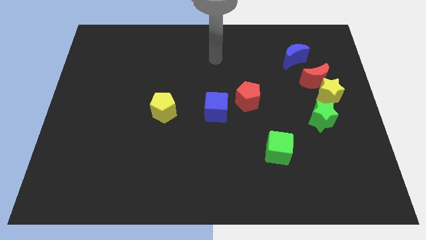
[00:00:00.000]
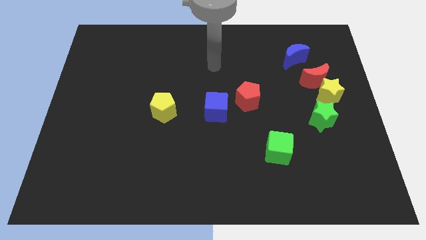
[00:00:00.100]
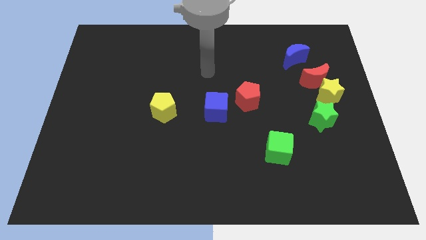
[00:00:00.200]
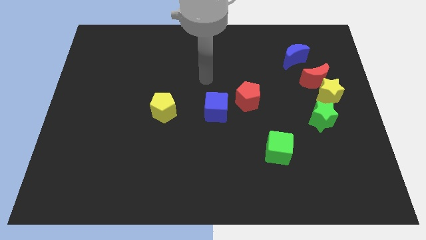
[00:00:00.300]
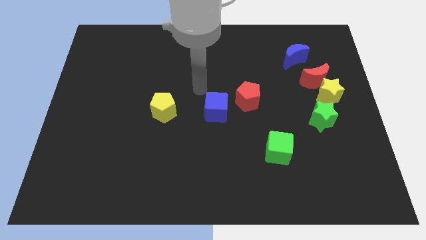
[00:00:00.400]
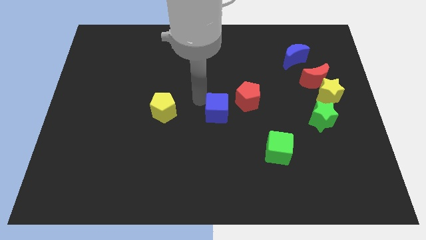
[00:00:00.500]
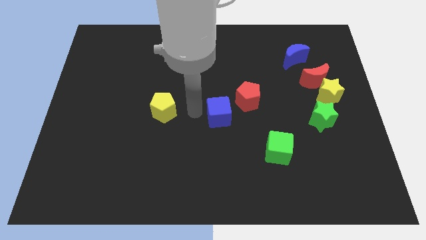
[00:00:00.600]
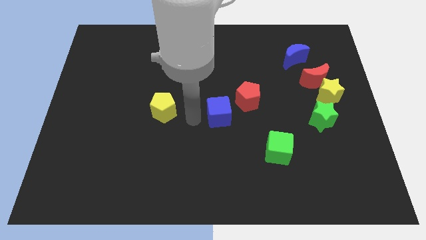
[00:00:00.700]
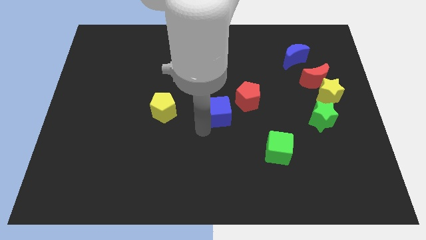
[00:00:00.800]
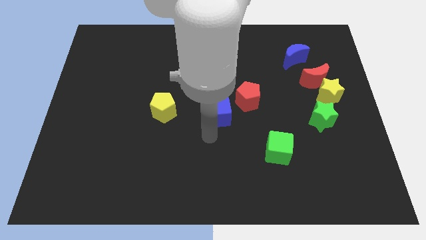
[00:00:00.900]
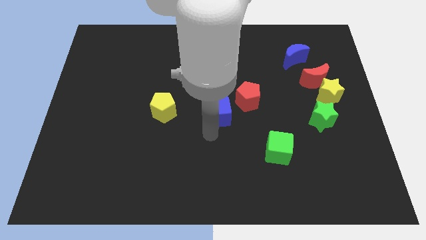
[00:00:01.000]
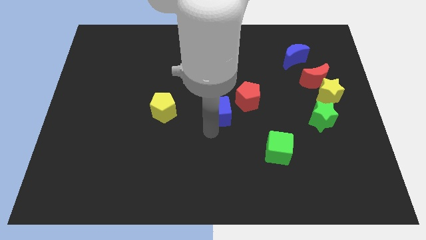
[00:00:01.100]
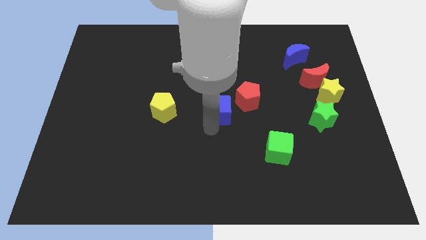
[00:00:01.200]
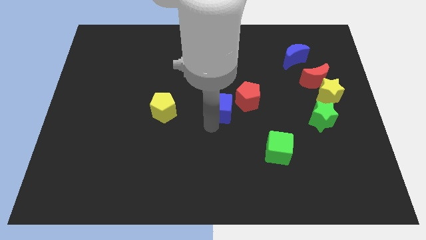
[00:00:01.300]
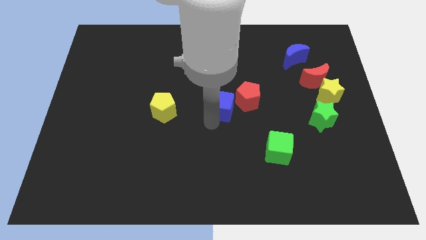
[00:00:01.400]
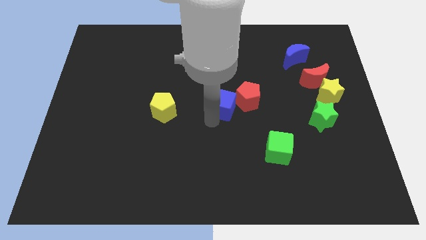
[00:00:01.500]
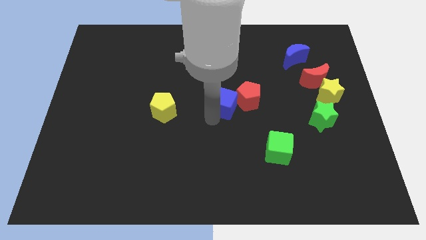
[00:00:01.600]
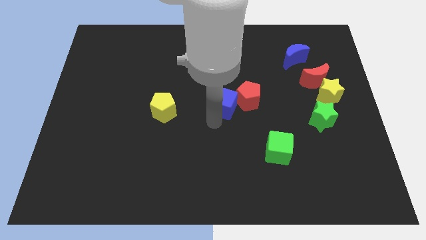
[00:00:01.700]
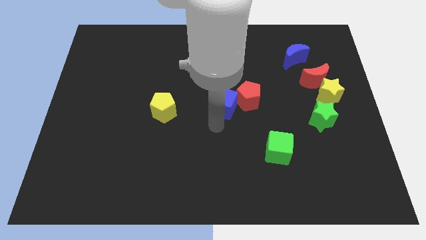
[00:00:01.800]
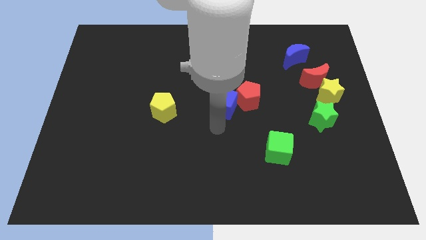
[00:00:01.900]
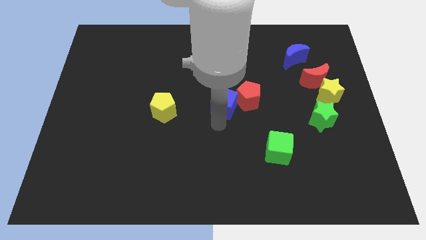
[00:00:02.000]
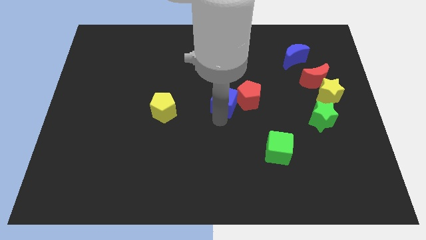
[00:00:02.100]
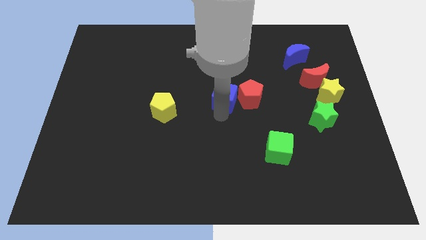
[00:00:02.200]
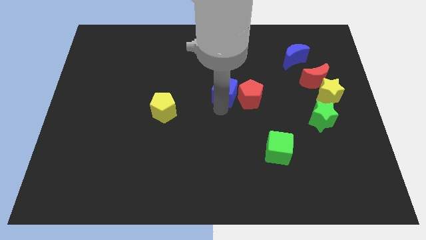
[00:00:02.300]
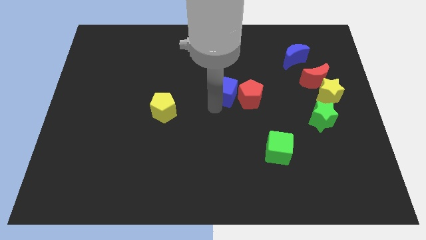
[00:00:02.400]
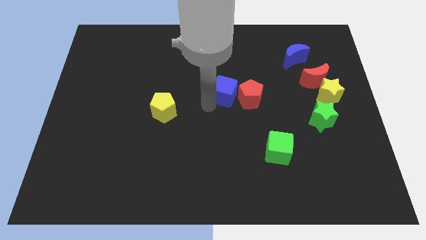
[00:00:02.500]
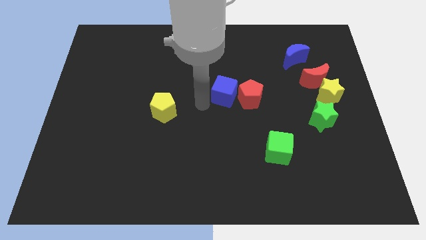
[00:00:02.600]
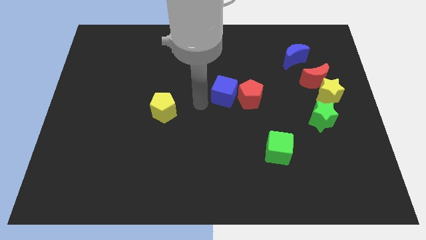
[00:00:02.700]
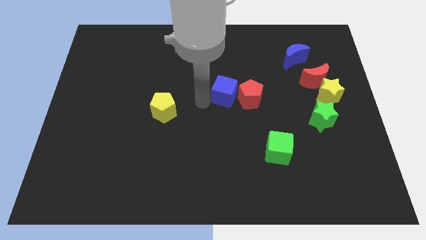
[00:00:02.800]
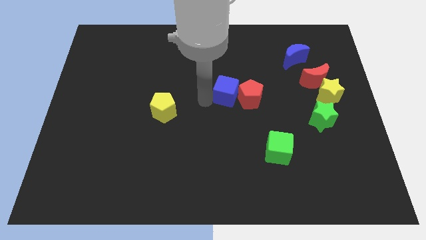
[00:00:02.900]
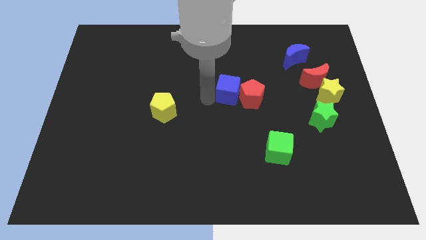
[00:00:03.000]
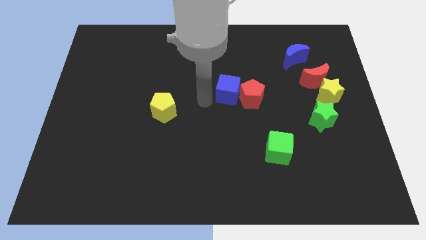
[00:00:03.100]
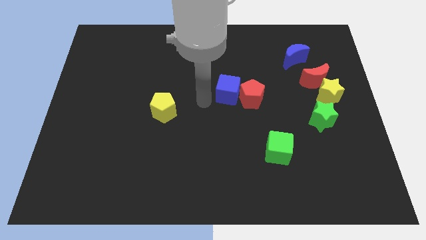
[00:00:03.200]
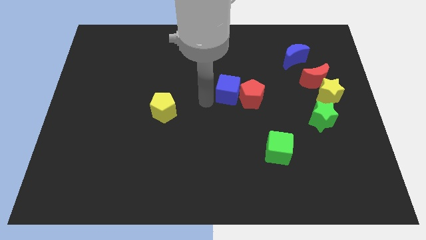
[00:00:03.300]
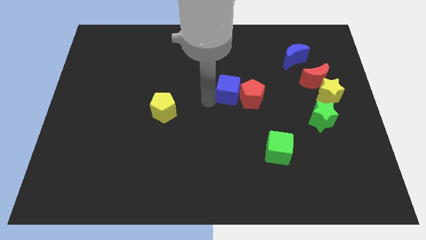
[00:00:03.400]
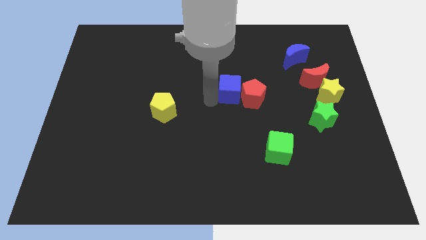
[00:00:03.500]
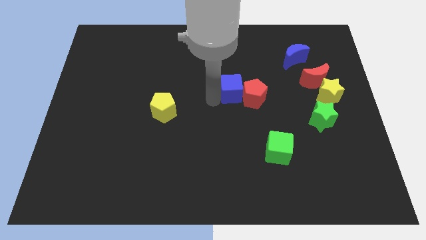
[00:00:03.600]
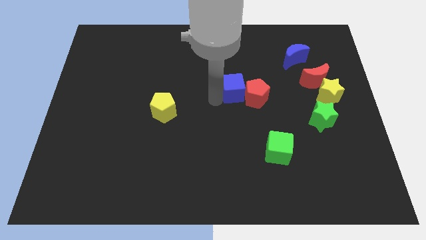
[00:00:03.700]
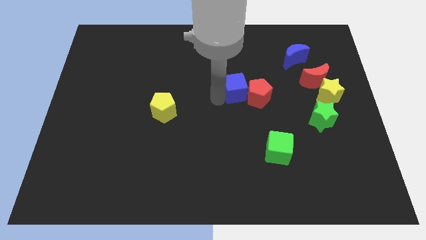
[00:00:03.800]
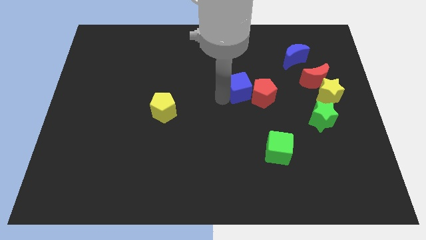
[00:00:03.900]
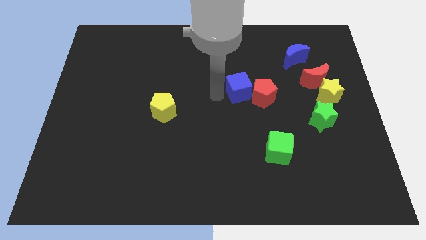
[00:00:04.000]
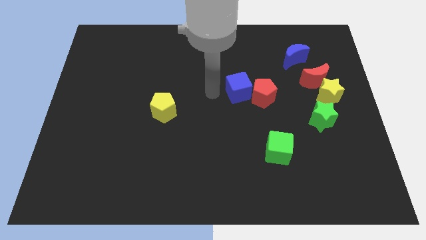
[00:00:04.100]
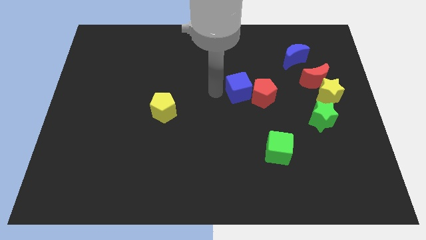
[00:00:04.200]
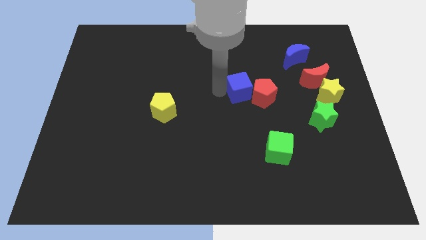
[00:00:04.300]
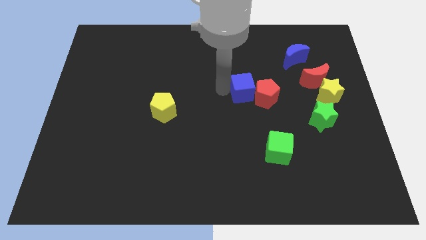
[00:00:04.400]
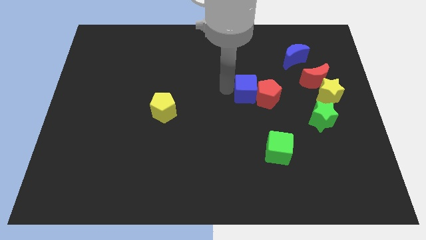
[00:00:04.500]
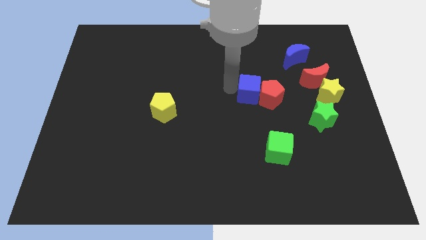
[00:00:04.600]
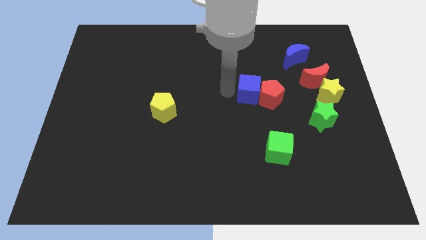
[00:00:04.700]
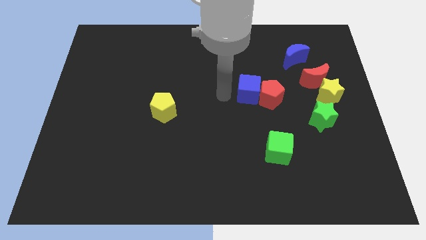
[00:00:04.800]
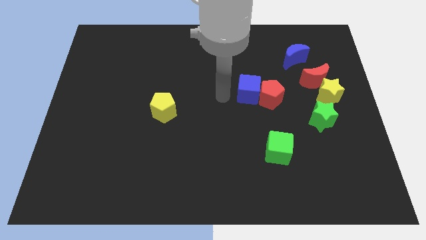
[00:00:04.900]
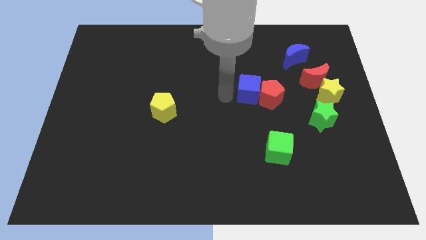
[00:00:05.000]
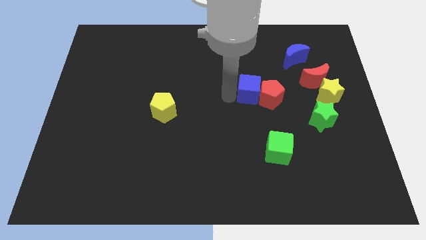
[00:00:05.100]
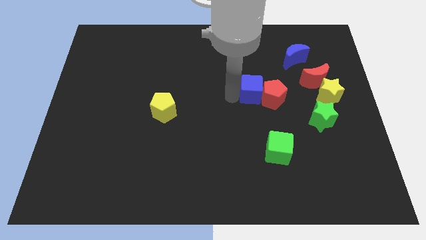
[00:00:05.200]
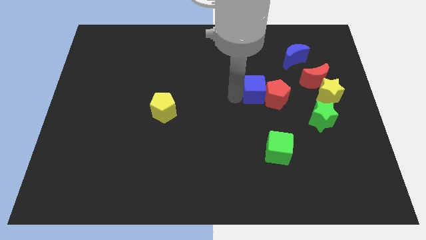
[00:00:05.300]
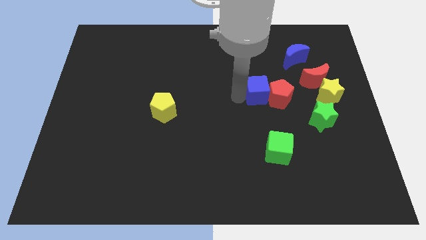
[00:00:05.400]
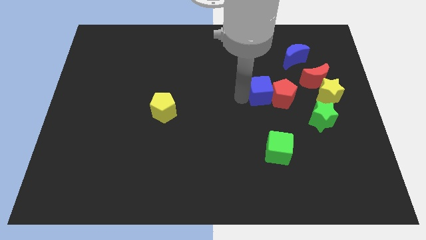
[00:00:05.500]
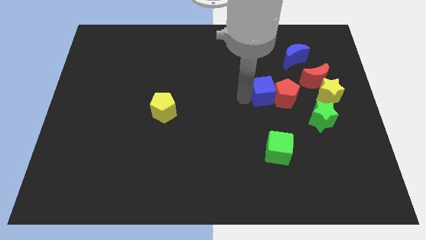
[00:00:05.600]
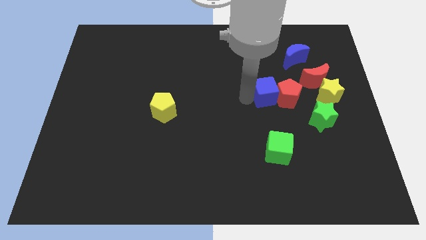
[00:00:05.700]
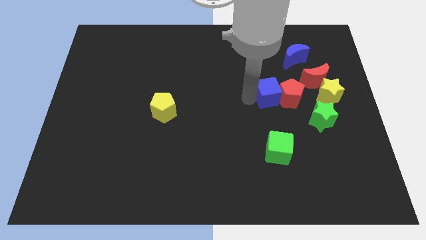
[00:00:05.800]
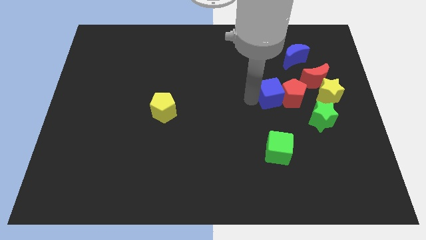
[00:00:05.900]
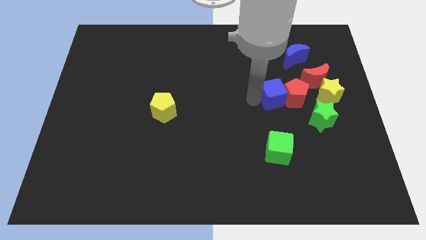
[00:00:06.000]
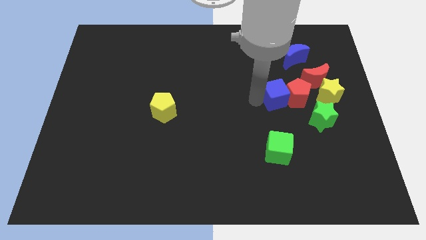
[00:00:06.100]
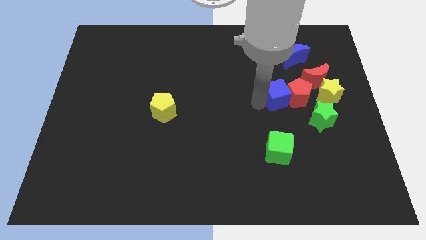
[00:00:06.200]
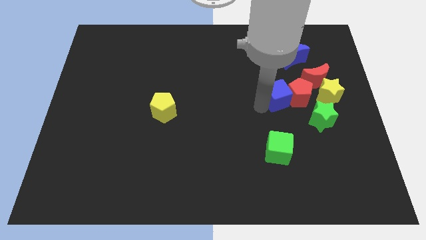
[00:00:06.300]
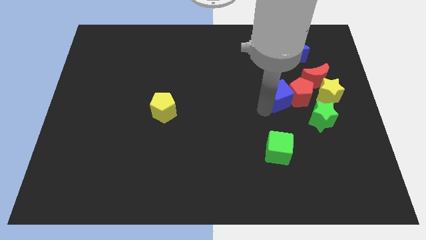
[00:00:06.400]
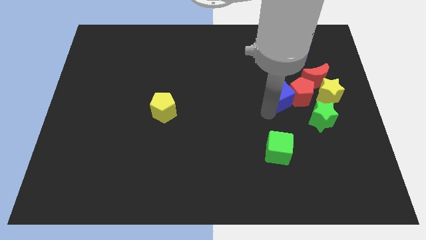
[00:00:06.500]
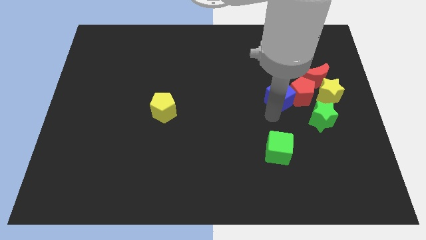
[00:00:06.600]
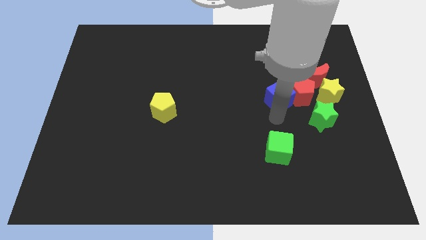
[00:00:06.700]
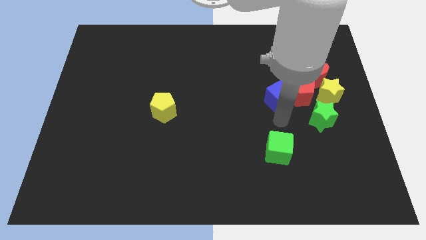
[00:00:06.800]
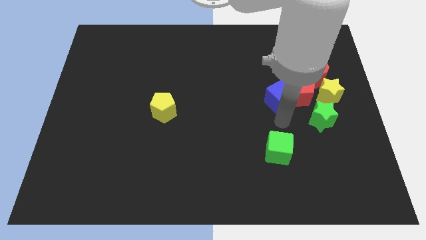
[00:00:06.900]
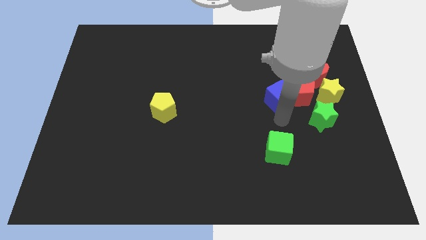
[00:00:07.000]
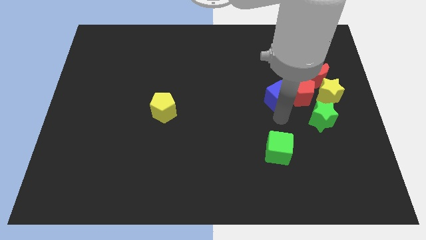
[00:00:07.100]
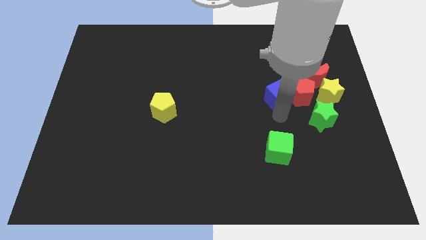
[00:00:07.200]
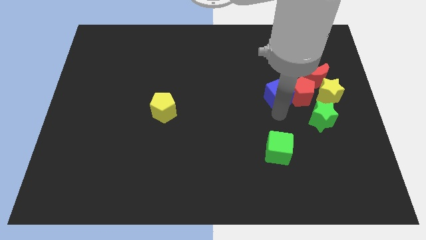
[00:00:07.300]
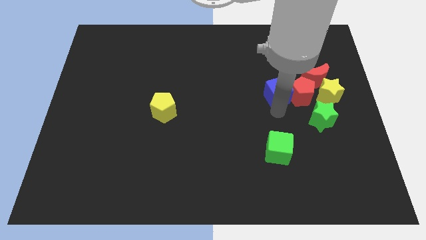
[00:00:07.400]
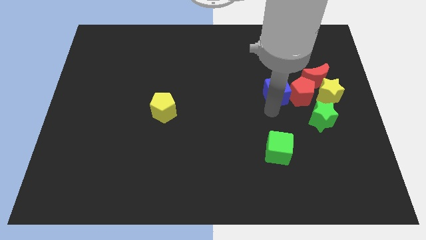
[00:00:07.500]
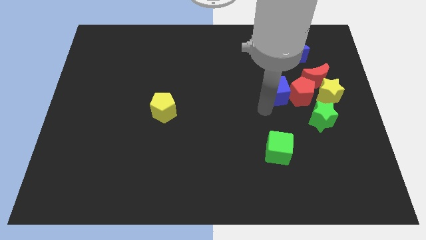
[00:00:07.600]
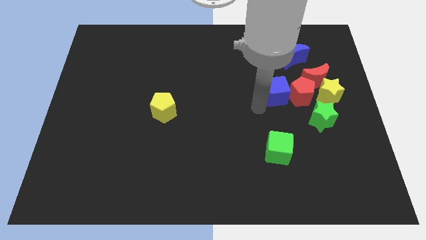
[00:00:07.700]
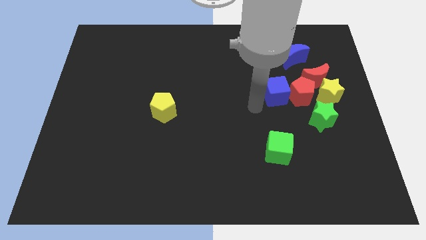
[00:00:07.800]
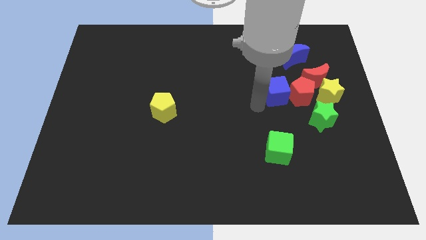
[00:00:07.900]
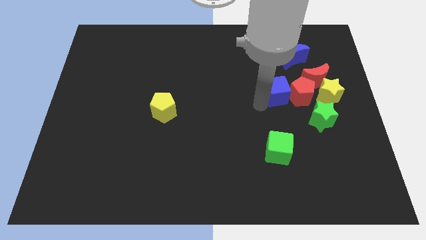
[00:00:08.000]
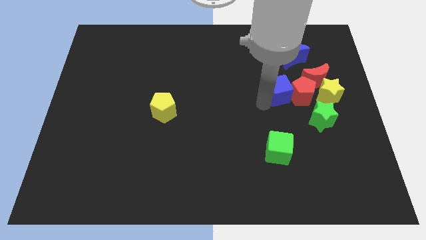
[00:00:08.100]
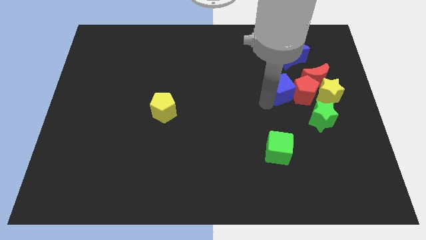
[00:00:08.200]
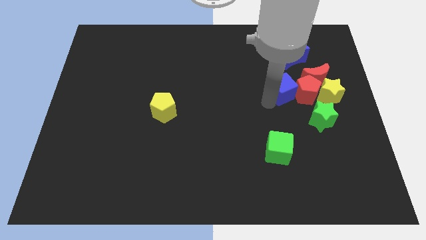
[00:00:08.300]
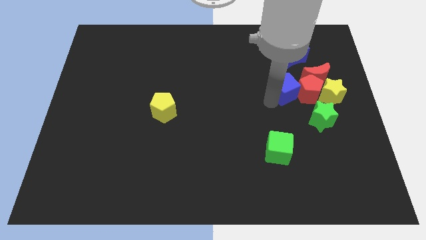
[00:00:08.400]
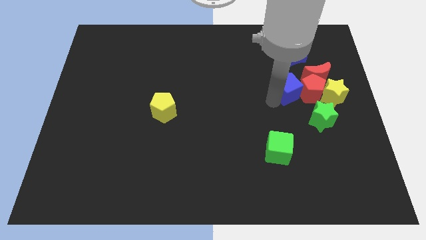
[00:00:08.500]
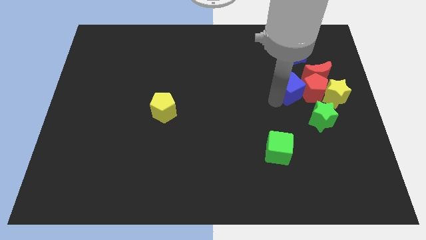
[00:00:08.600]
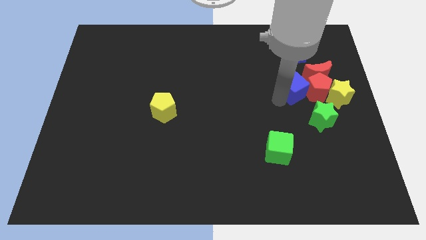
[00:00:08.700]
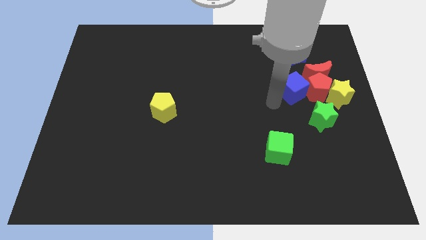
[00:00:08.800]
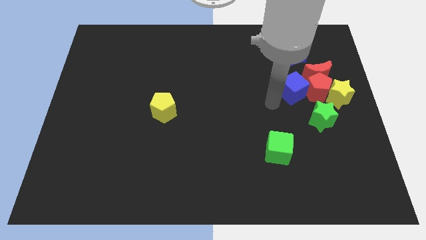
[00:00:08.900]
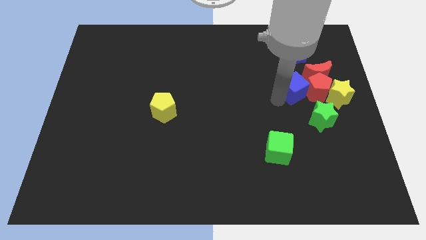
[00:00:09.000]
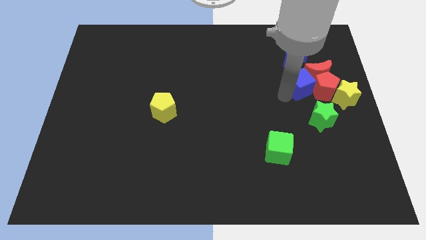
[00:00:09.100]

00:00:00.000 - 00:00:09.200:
put the blue cube towards the red moon
